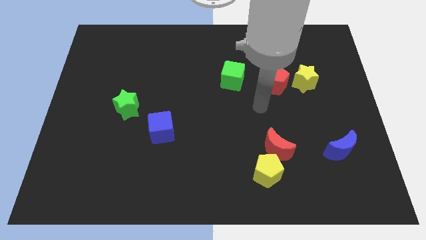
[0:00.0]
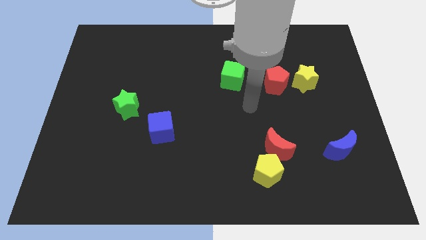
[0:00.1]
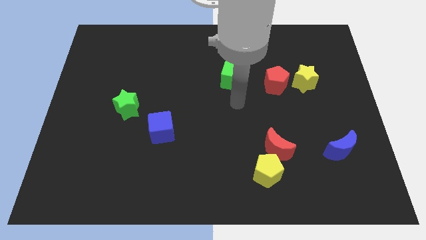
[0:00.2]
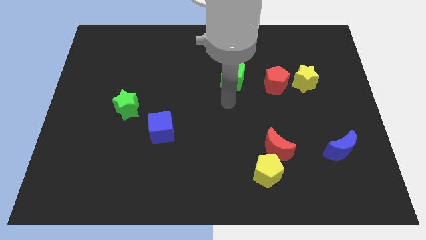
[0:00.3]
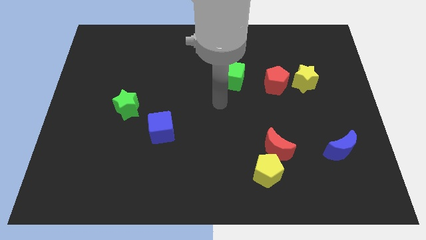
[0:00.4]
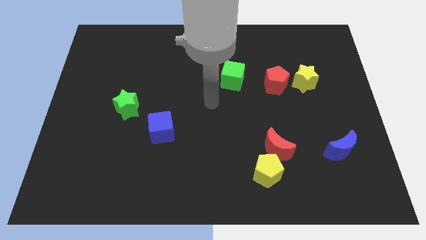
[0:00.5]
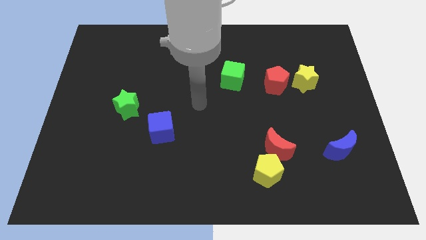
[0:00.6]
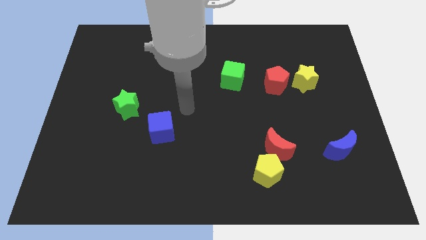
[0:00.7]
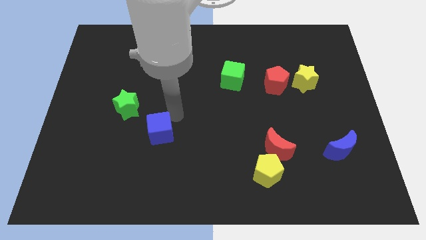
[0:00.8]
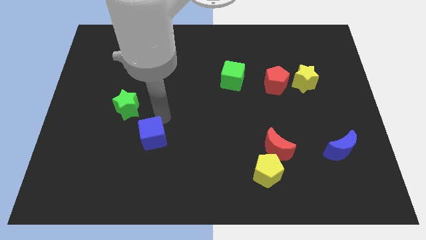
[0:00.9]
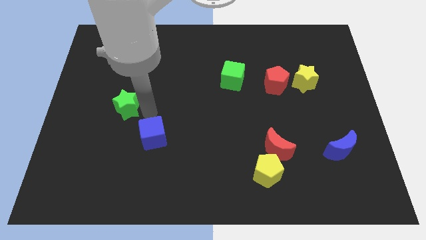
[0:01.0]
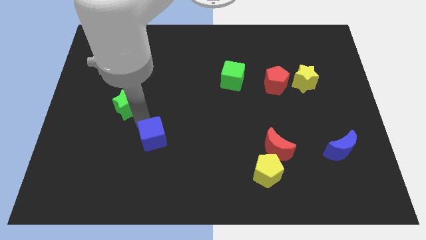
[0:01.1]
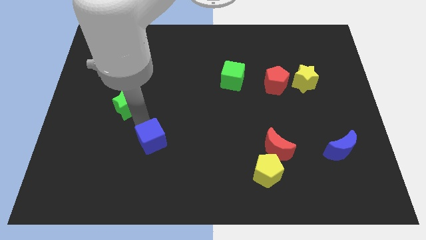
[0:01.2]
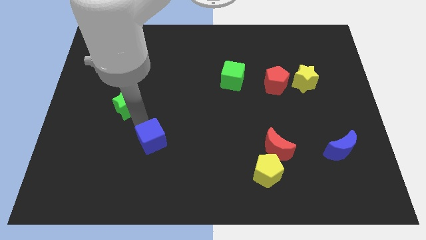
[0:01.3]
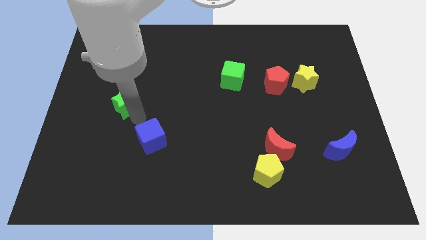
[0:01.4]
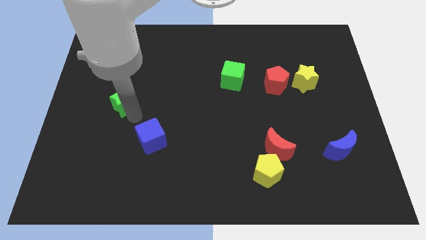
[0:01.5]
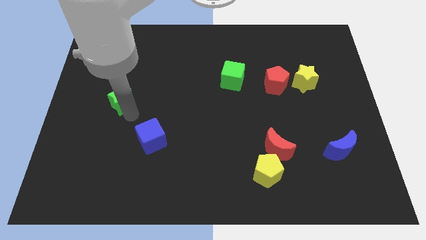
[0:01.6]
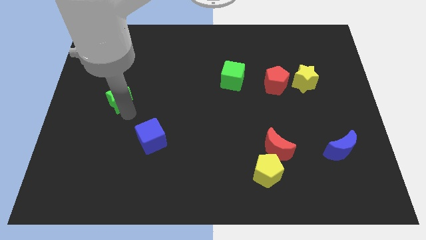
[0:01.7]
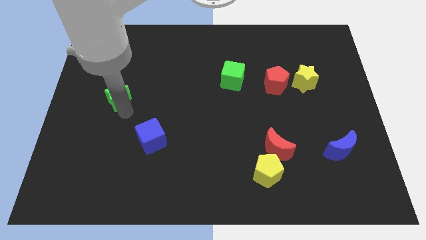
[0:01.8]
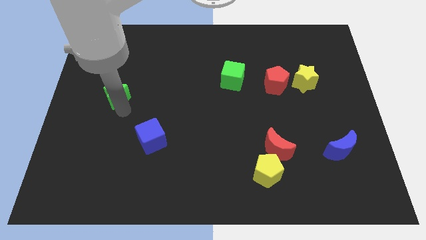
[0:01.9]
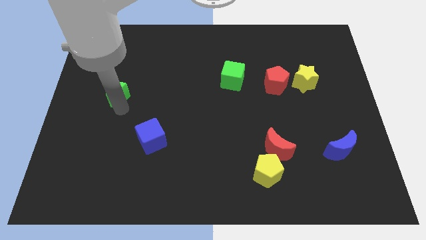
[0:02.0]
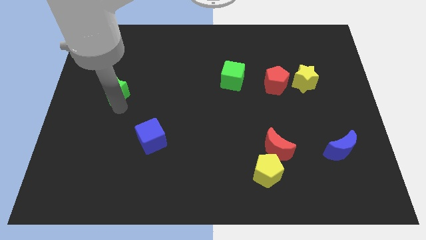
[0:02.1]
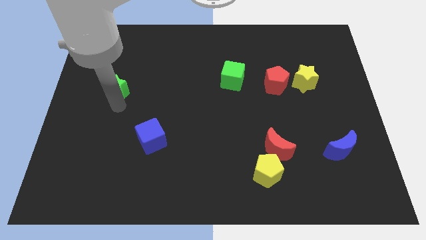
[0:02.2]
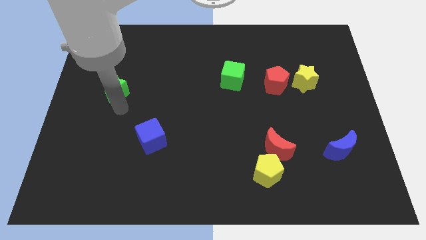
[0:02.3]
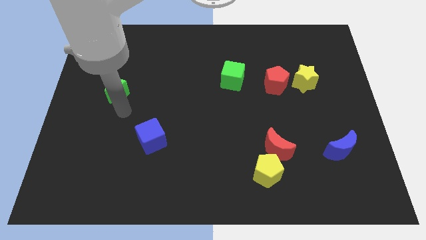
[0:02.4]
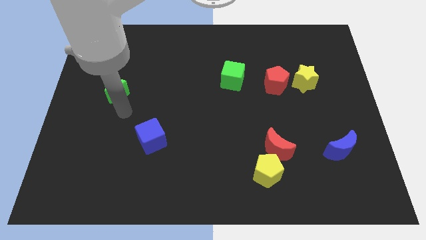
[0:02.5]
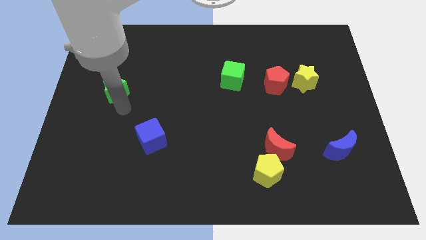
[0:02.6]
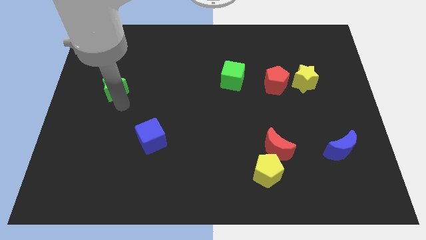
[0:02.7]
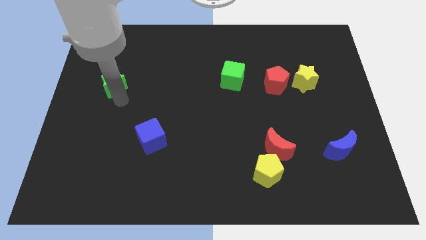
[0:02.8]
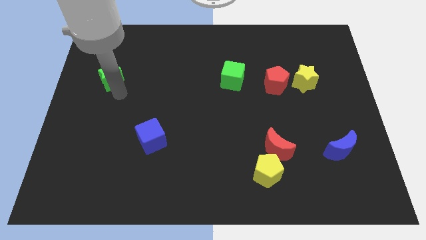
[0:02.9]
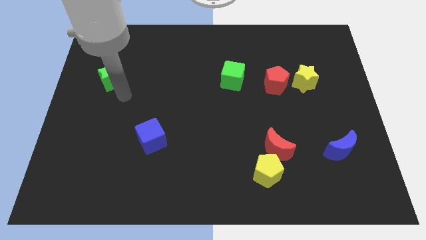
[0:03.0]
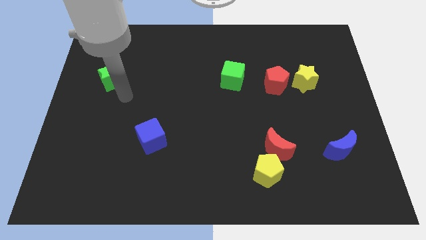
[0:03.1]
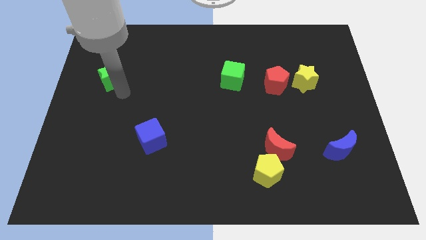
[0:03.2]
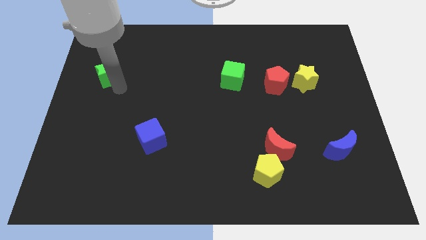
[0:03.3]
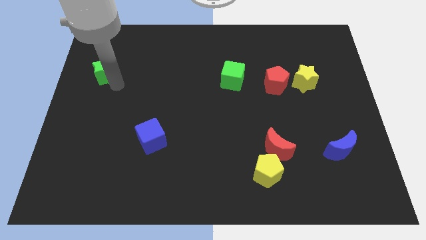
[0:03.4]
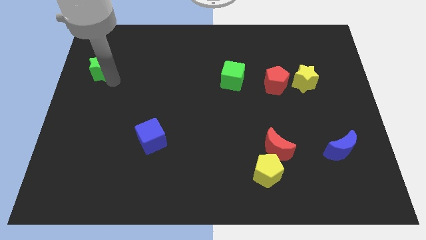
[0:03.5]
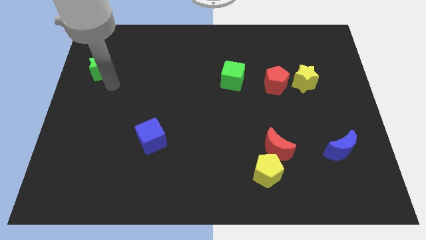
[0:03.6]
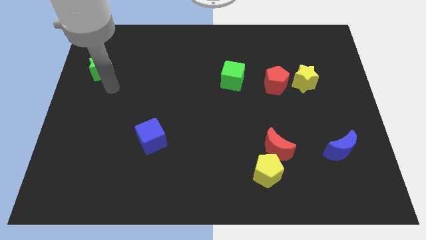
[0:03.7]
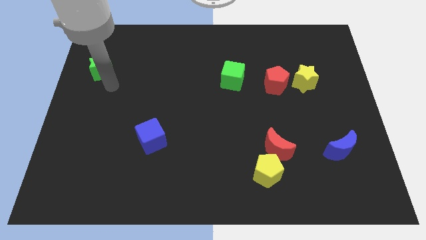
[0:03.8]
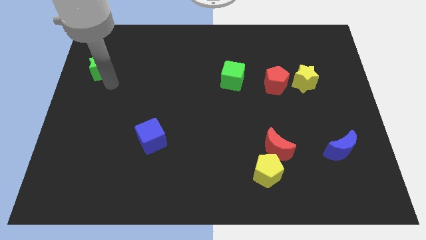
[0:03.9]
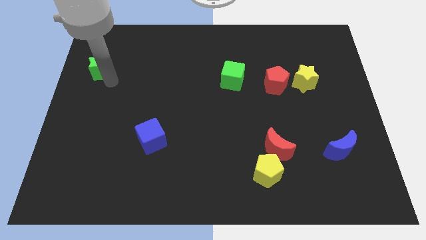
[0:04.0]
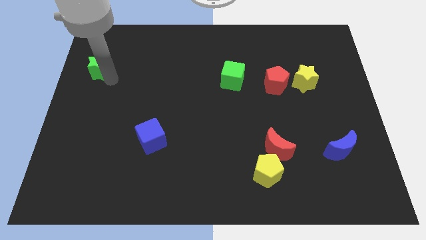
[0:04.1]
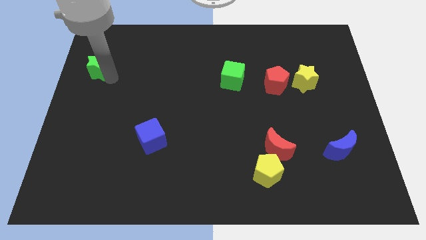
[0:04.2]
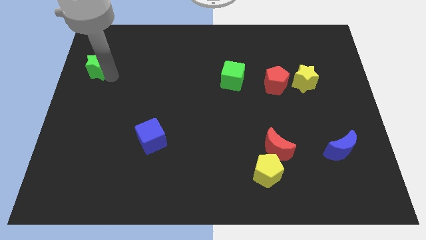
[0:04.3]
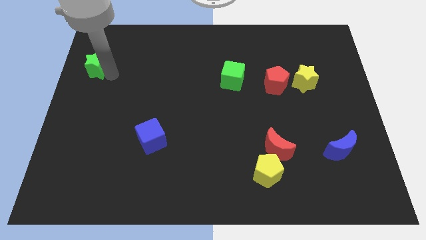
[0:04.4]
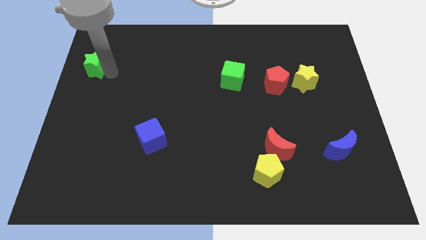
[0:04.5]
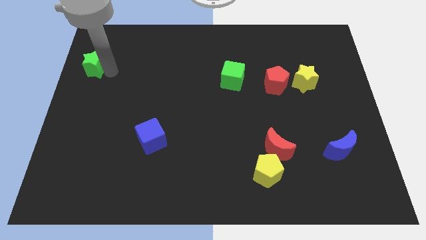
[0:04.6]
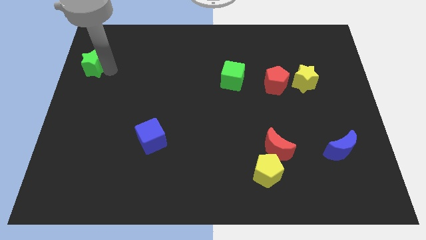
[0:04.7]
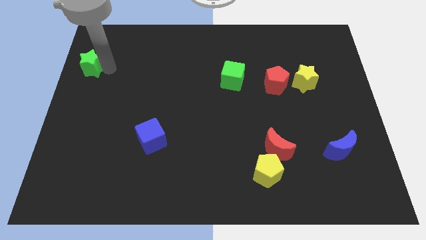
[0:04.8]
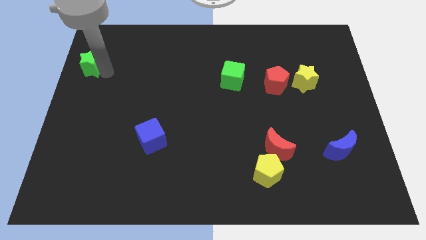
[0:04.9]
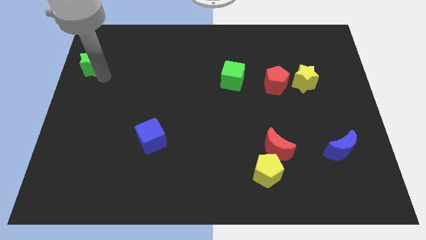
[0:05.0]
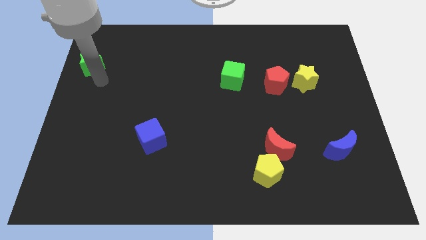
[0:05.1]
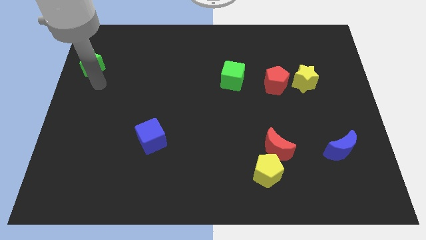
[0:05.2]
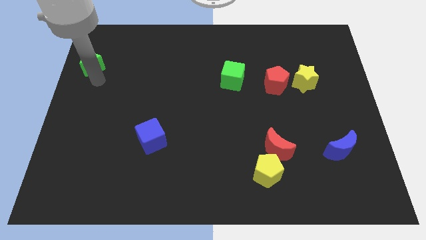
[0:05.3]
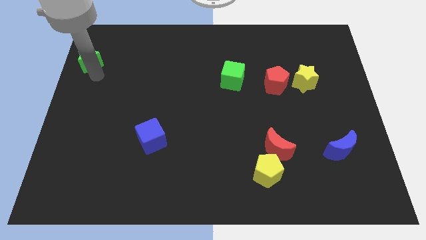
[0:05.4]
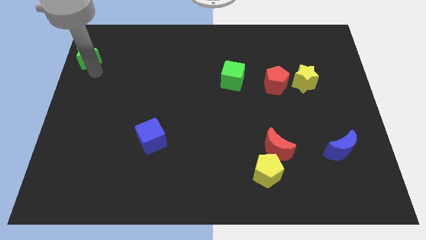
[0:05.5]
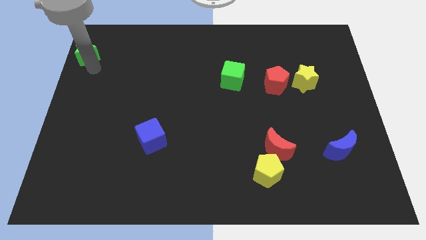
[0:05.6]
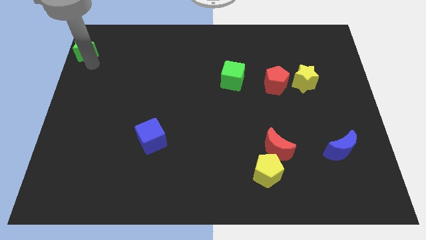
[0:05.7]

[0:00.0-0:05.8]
slide the green star to the top left of the board

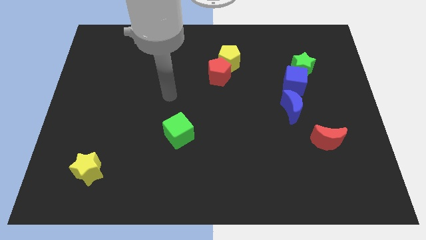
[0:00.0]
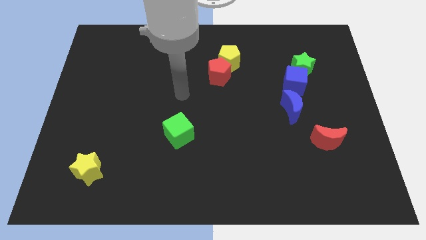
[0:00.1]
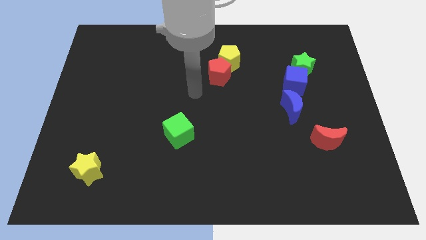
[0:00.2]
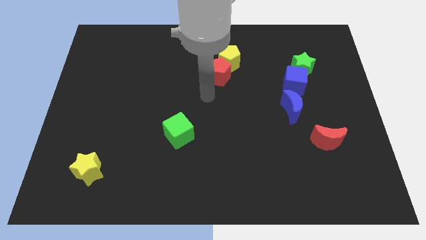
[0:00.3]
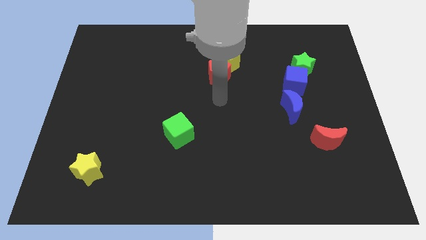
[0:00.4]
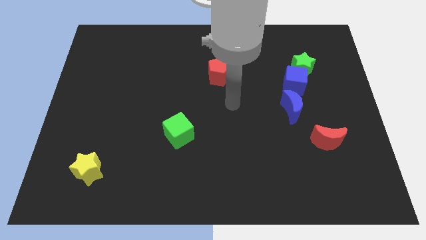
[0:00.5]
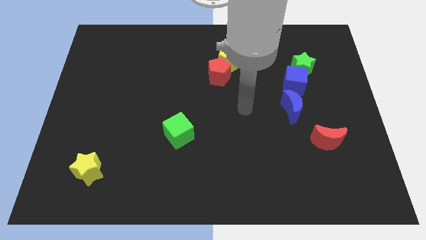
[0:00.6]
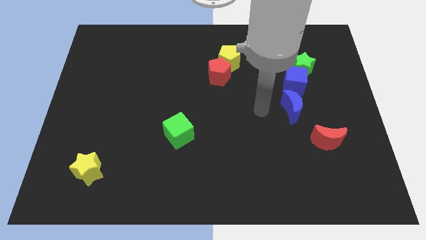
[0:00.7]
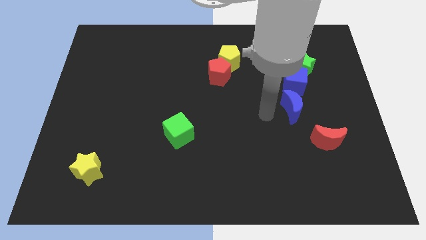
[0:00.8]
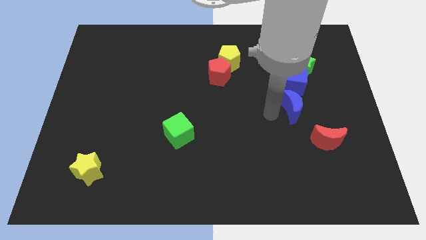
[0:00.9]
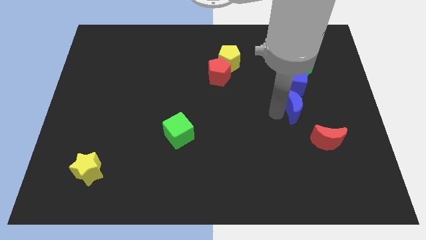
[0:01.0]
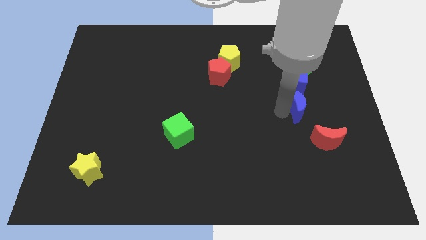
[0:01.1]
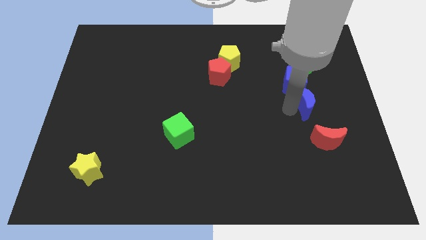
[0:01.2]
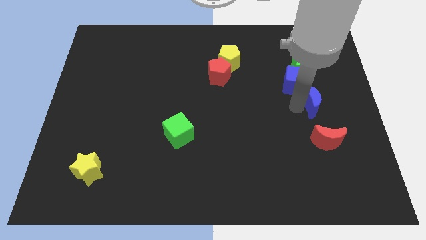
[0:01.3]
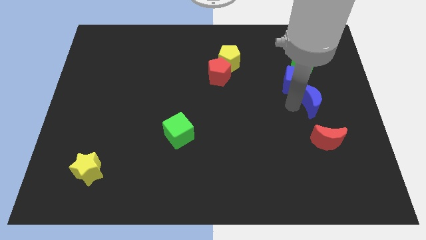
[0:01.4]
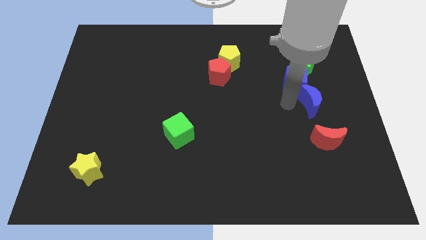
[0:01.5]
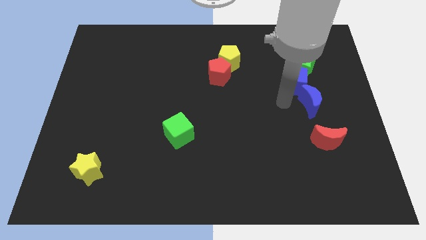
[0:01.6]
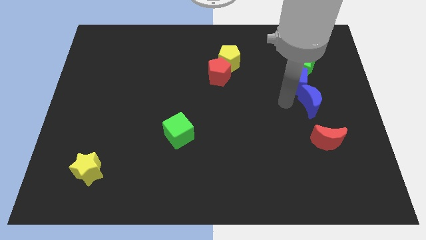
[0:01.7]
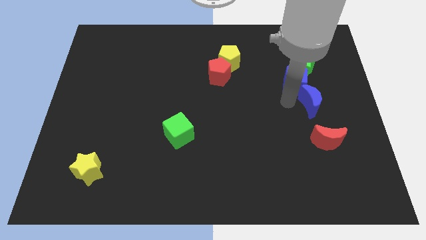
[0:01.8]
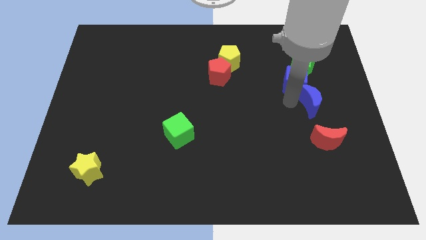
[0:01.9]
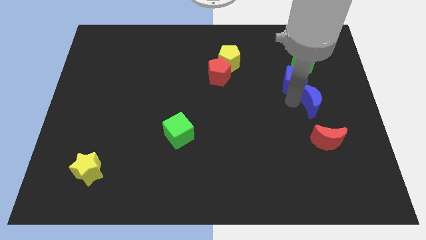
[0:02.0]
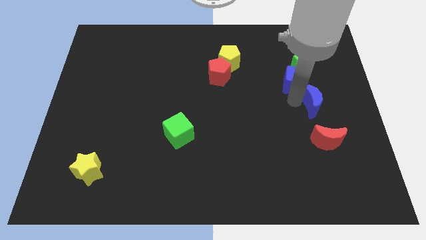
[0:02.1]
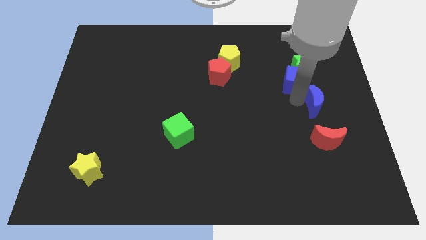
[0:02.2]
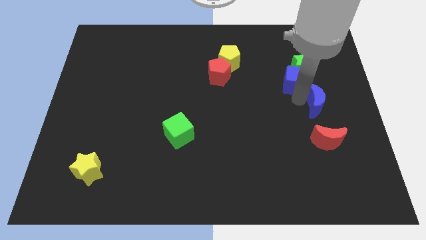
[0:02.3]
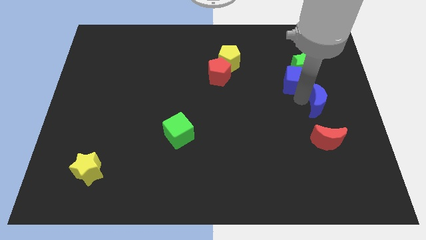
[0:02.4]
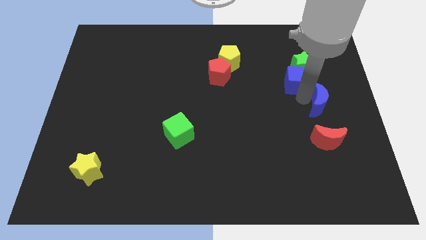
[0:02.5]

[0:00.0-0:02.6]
move the blue moon to the right side
